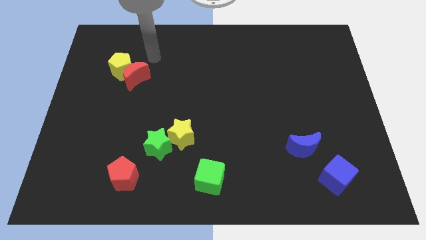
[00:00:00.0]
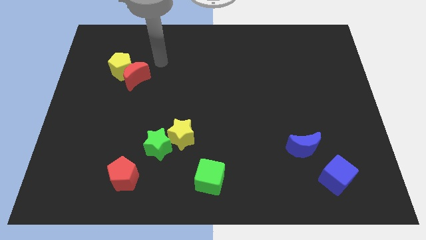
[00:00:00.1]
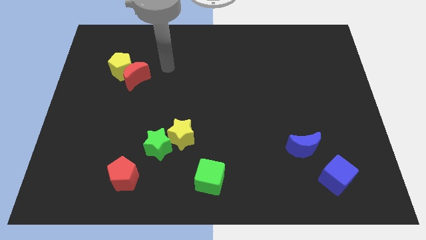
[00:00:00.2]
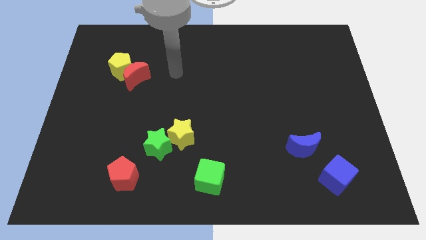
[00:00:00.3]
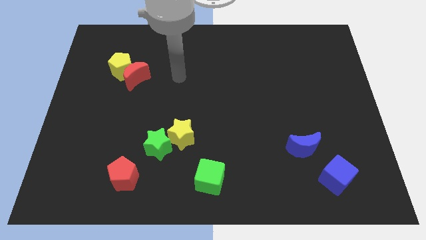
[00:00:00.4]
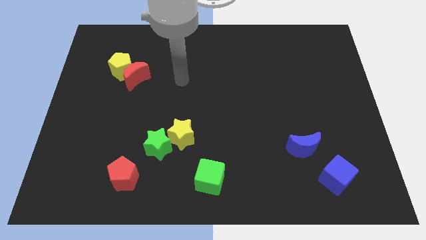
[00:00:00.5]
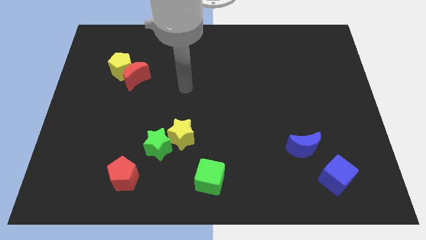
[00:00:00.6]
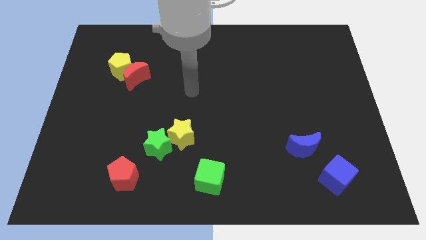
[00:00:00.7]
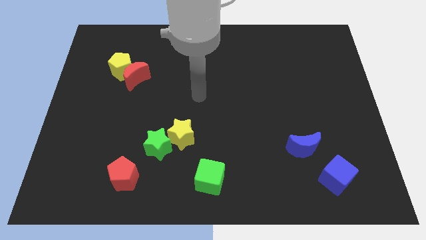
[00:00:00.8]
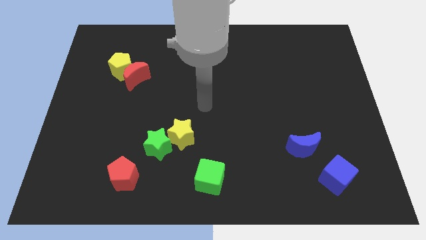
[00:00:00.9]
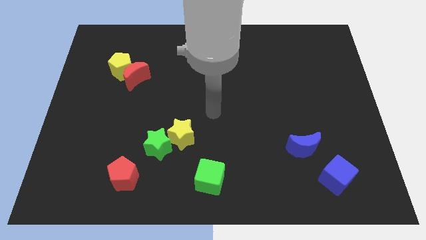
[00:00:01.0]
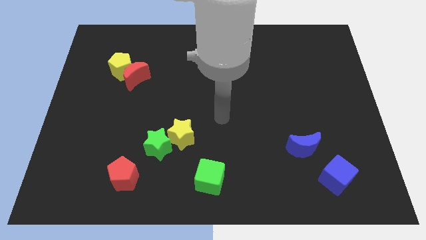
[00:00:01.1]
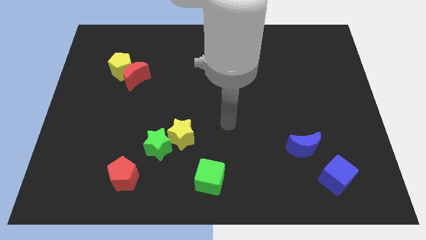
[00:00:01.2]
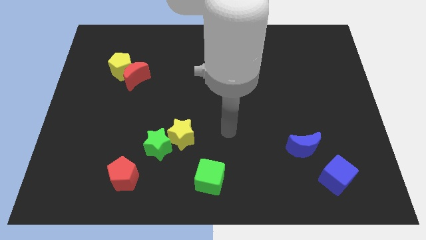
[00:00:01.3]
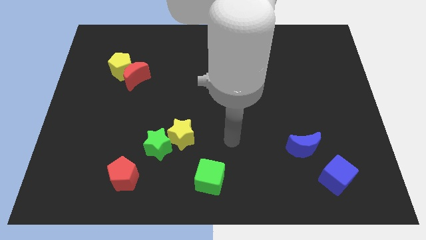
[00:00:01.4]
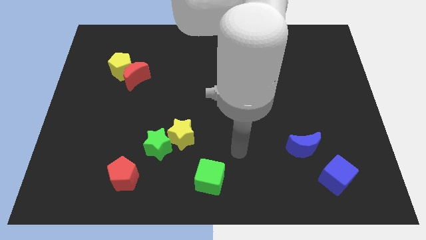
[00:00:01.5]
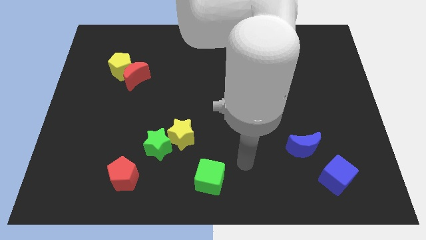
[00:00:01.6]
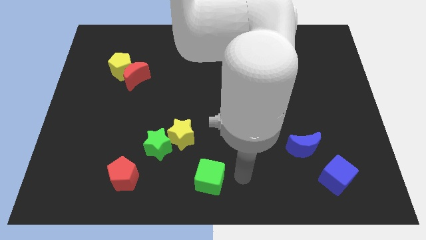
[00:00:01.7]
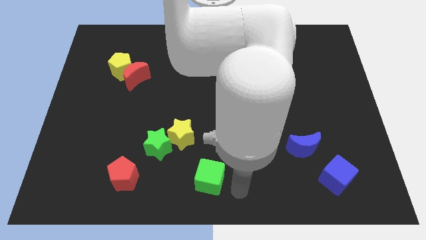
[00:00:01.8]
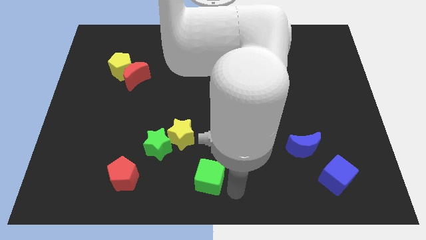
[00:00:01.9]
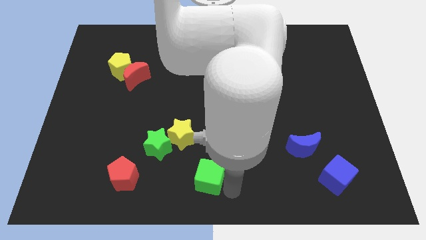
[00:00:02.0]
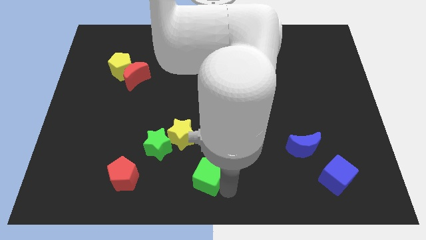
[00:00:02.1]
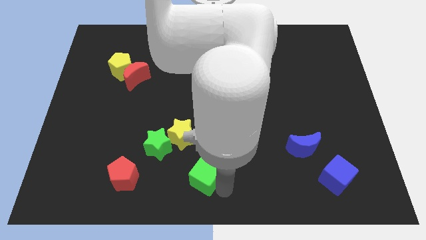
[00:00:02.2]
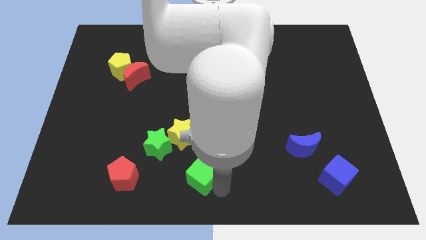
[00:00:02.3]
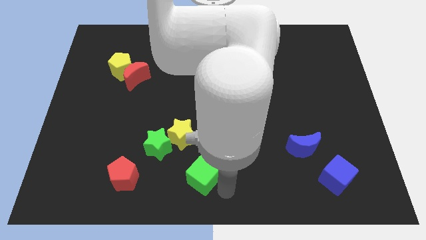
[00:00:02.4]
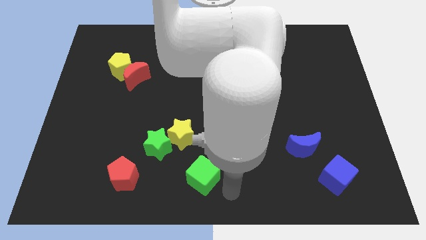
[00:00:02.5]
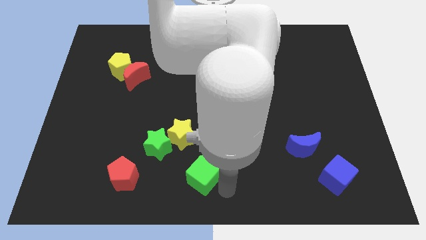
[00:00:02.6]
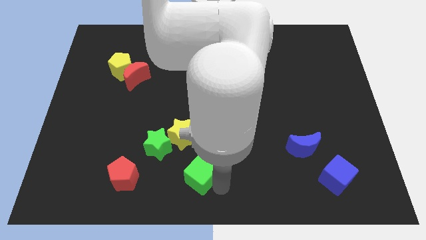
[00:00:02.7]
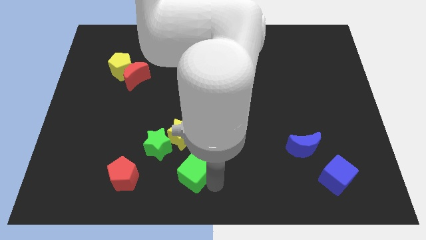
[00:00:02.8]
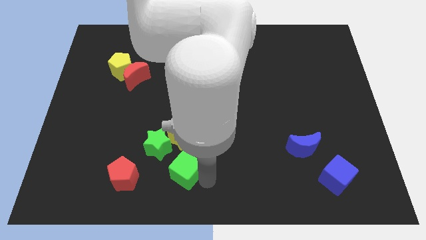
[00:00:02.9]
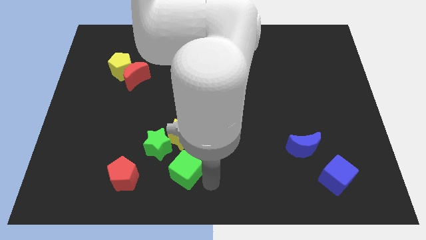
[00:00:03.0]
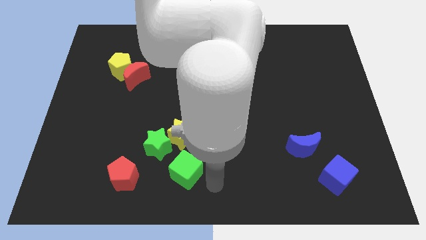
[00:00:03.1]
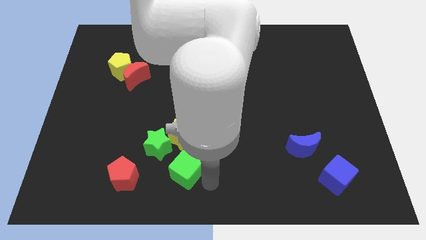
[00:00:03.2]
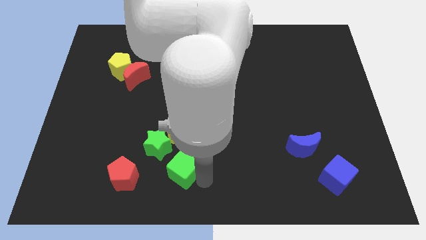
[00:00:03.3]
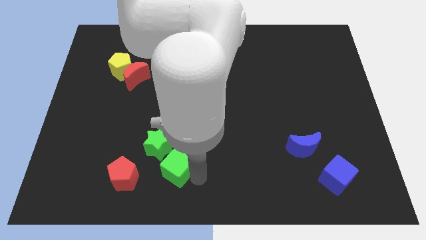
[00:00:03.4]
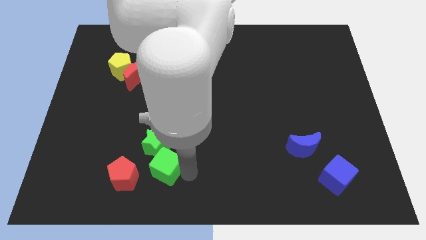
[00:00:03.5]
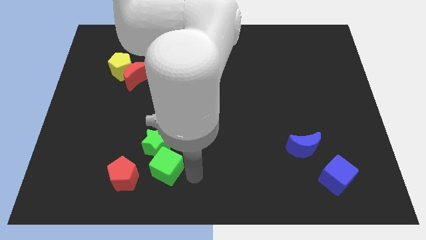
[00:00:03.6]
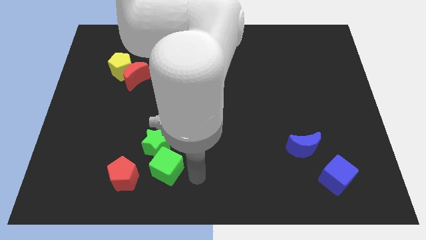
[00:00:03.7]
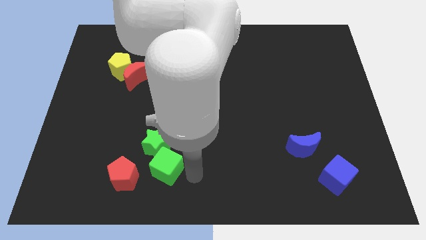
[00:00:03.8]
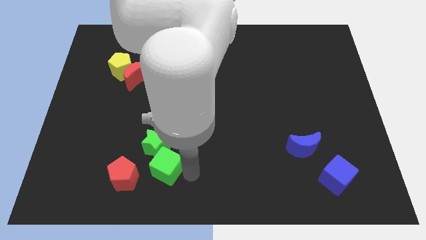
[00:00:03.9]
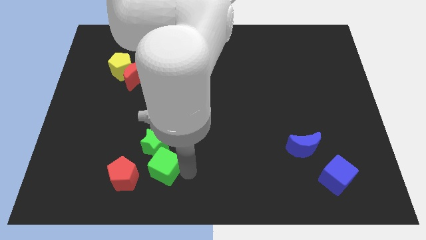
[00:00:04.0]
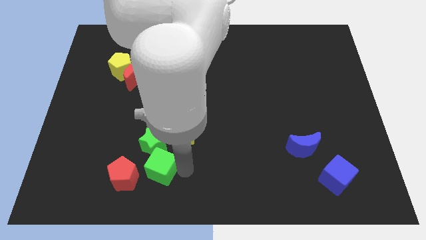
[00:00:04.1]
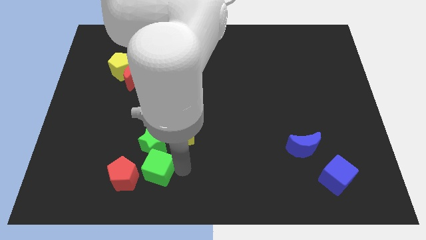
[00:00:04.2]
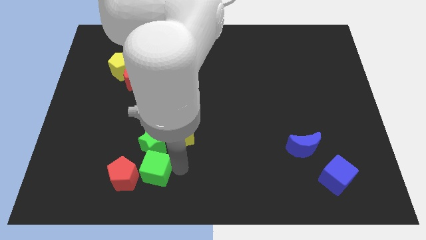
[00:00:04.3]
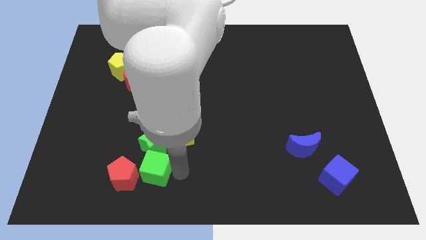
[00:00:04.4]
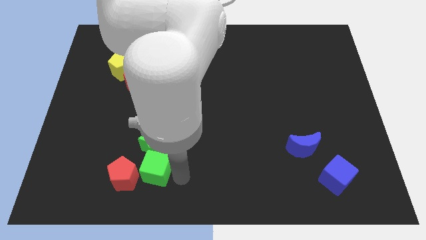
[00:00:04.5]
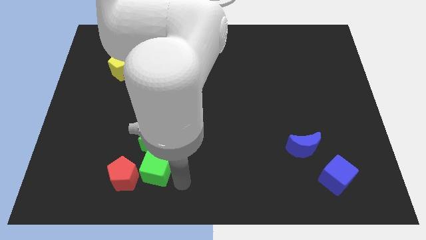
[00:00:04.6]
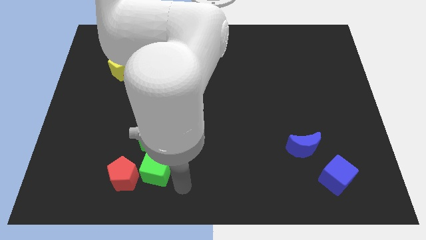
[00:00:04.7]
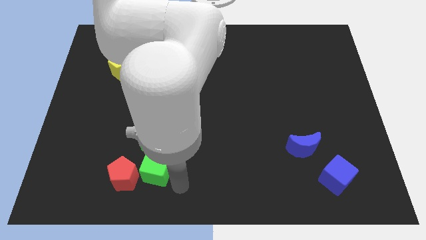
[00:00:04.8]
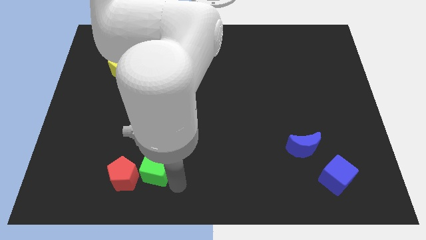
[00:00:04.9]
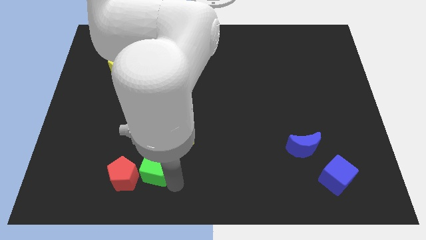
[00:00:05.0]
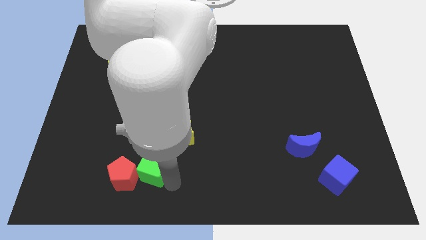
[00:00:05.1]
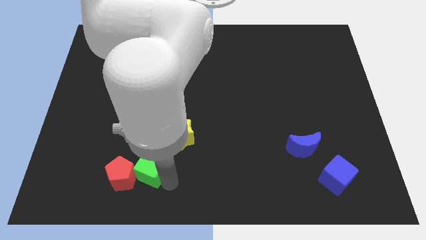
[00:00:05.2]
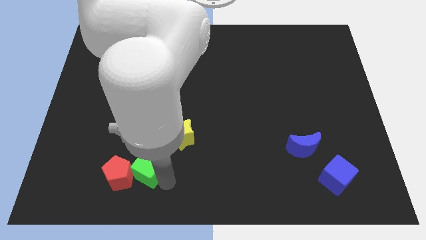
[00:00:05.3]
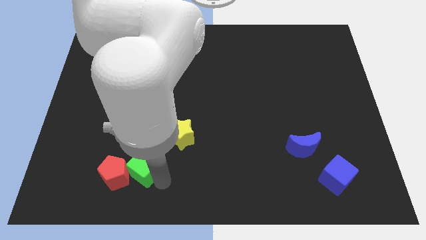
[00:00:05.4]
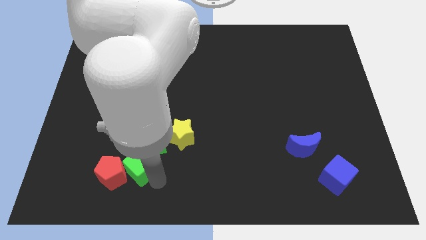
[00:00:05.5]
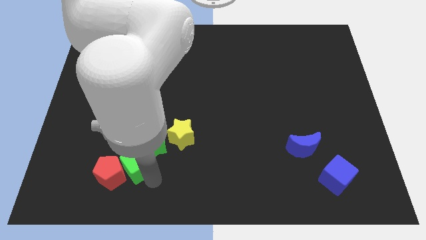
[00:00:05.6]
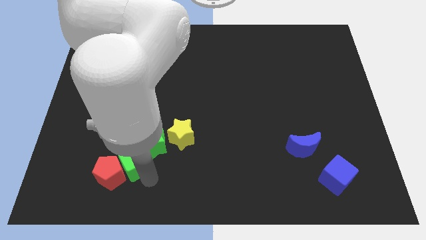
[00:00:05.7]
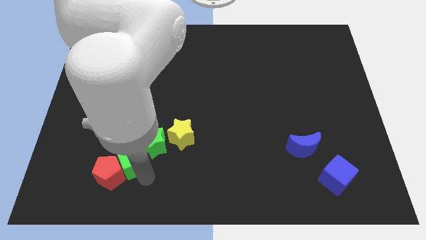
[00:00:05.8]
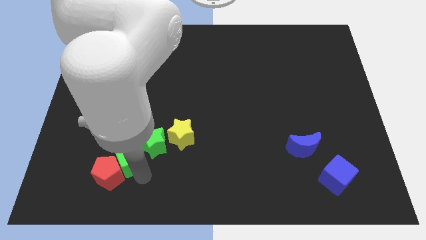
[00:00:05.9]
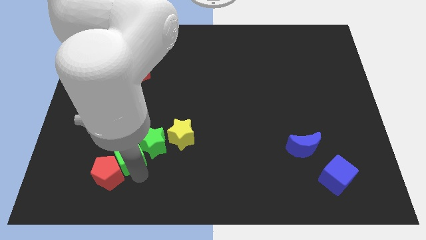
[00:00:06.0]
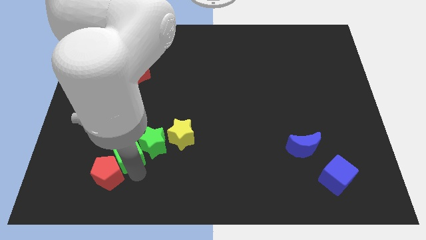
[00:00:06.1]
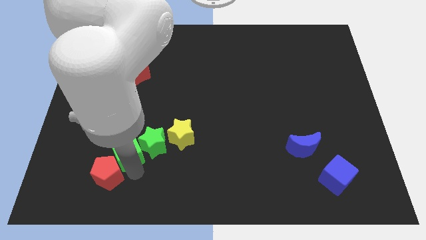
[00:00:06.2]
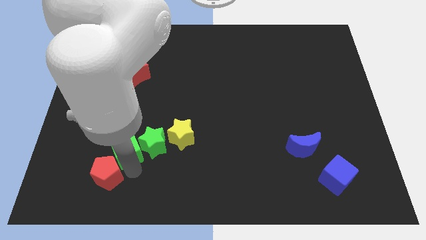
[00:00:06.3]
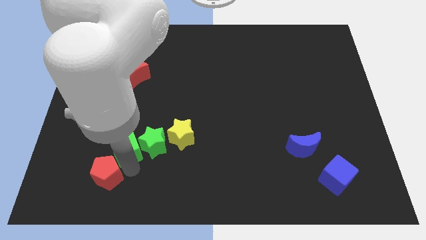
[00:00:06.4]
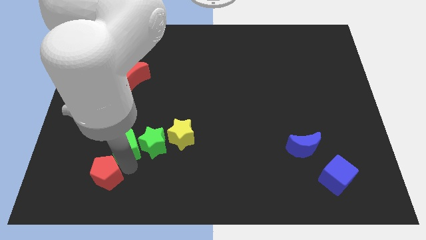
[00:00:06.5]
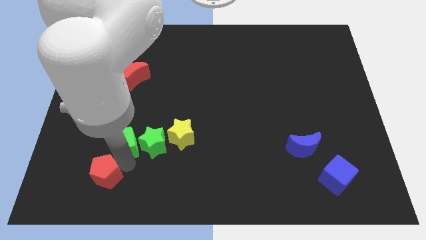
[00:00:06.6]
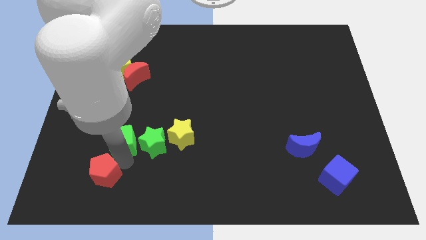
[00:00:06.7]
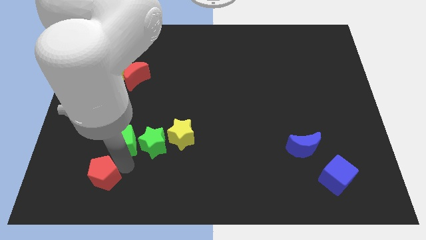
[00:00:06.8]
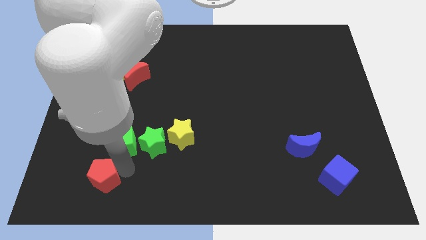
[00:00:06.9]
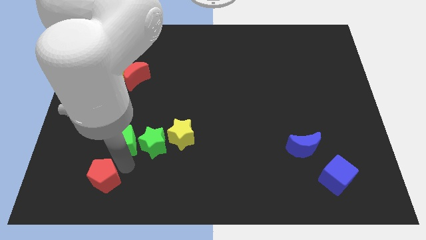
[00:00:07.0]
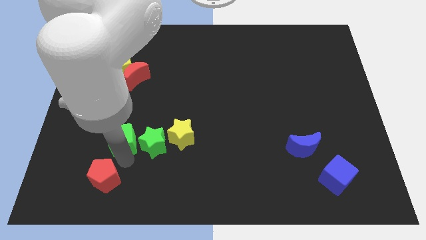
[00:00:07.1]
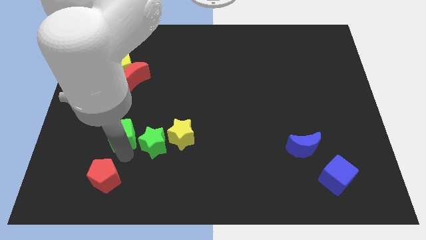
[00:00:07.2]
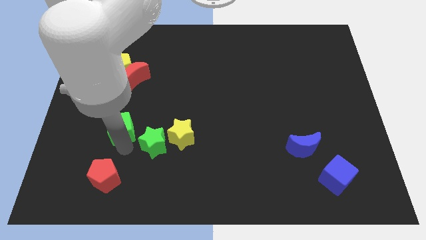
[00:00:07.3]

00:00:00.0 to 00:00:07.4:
move the green cube upwards and then left

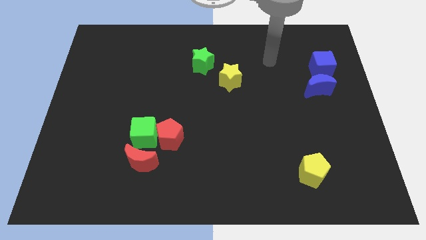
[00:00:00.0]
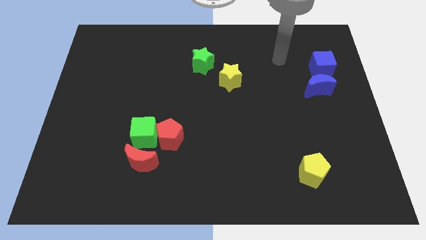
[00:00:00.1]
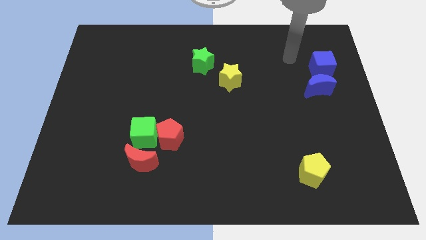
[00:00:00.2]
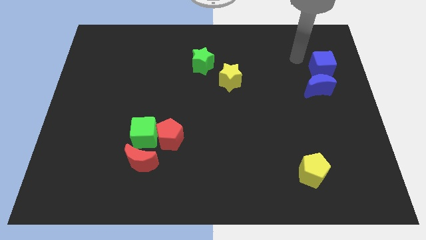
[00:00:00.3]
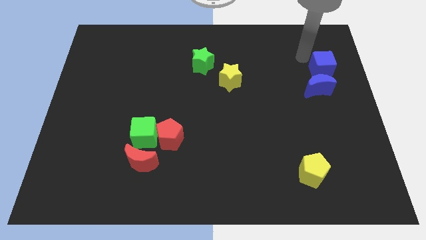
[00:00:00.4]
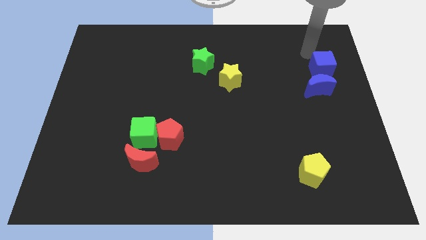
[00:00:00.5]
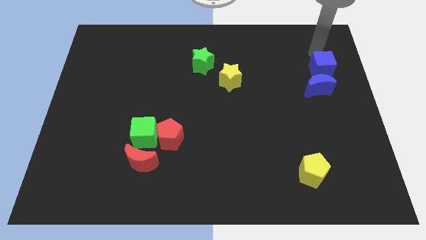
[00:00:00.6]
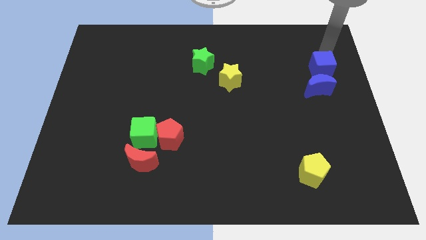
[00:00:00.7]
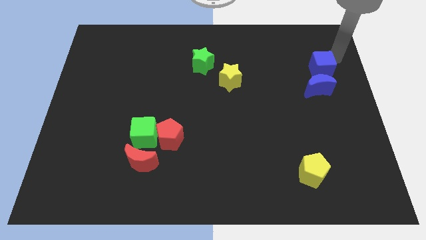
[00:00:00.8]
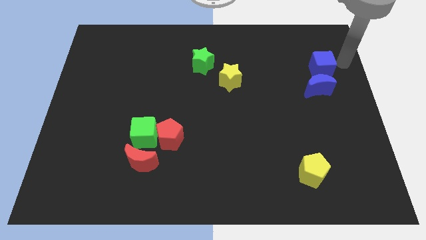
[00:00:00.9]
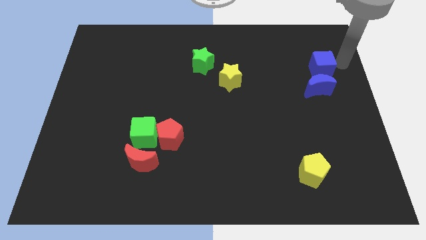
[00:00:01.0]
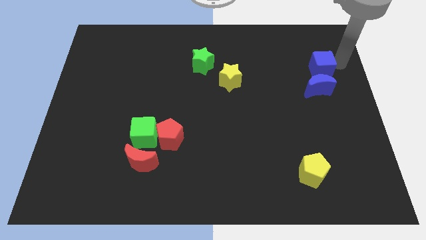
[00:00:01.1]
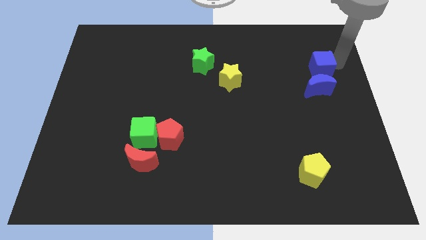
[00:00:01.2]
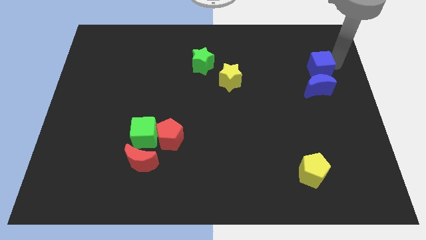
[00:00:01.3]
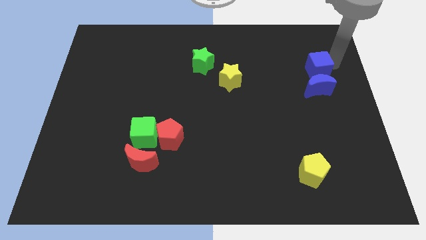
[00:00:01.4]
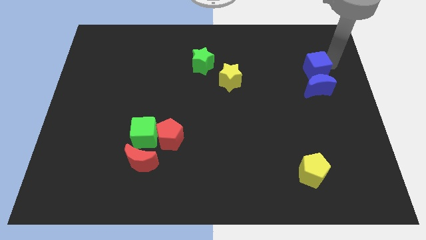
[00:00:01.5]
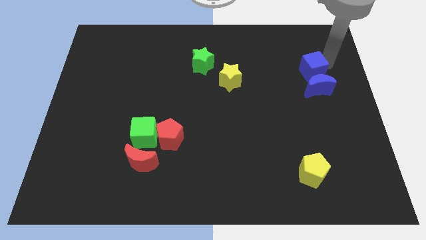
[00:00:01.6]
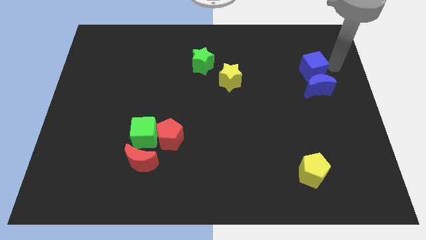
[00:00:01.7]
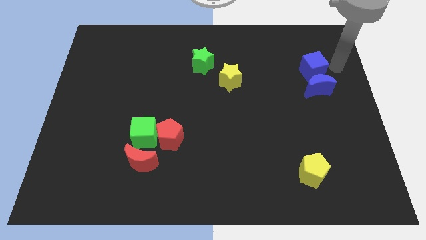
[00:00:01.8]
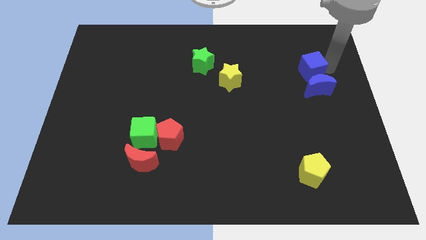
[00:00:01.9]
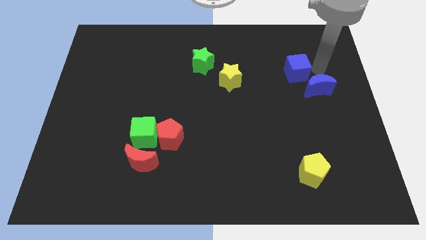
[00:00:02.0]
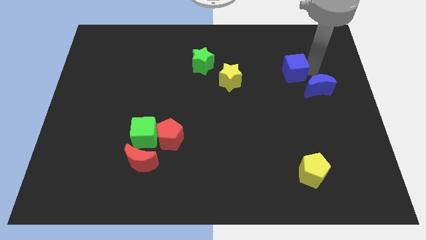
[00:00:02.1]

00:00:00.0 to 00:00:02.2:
move the blue cube to the left somewhat
